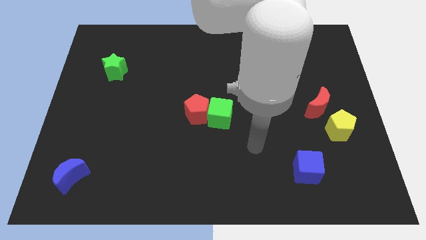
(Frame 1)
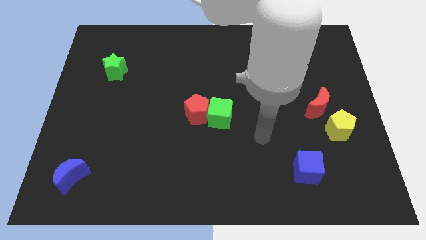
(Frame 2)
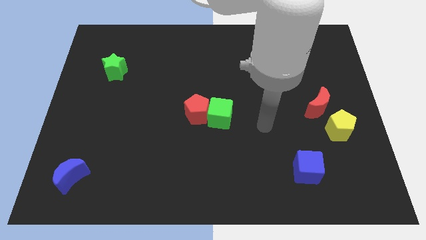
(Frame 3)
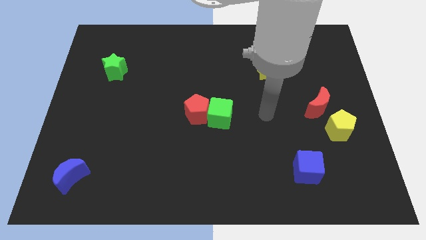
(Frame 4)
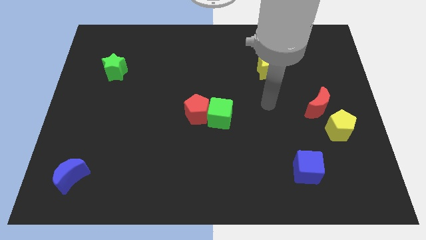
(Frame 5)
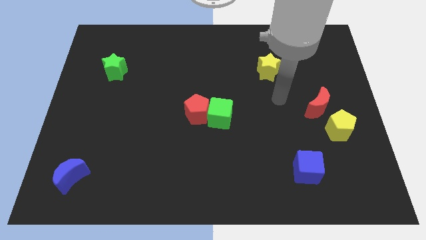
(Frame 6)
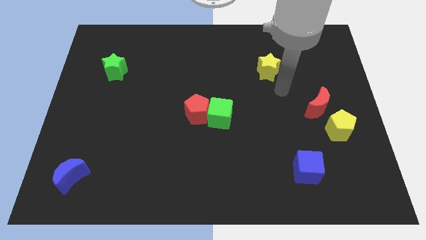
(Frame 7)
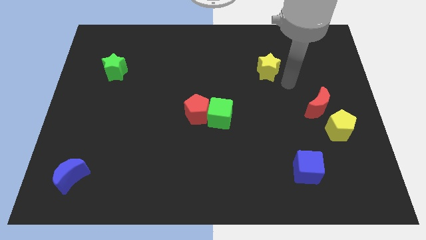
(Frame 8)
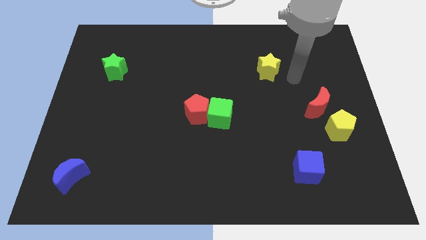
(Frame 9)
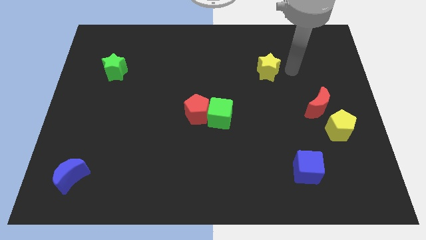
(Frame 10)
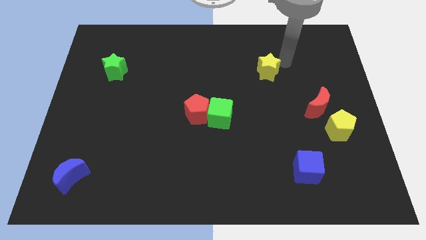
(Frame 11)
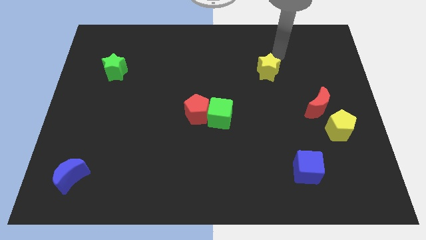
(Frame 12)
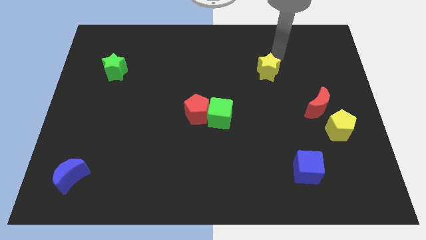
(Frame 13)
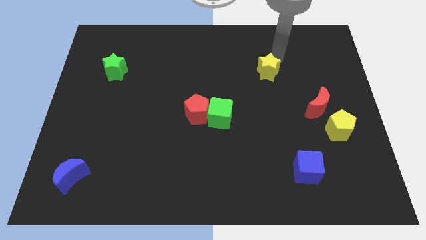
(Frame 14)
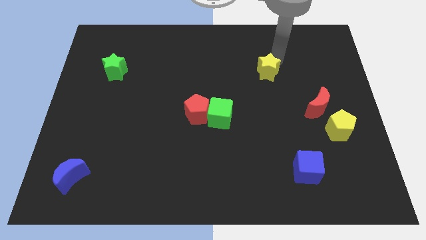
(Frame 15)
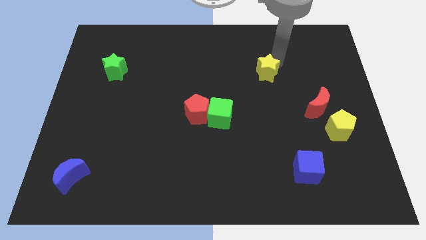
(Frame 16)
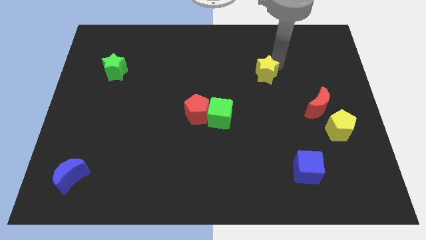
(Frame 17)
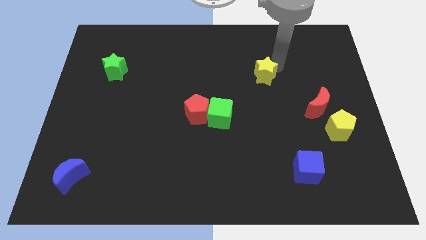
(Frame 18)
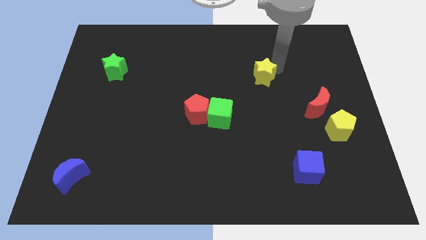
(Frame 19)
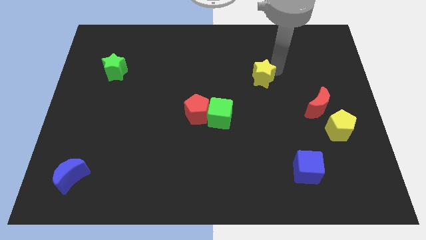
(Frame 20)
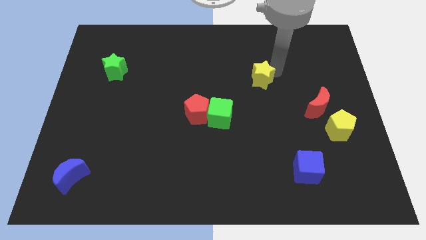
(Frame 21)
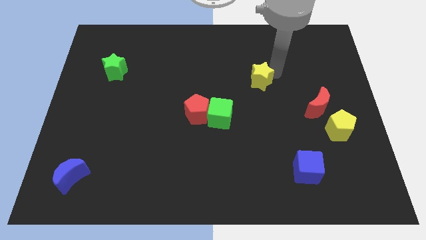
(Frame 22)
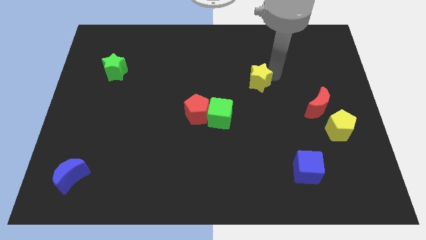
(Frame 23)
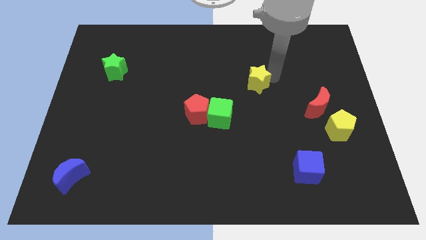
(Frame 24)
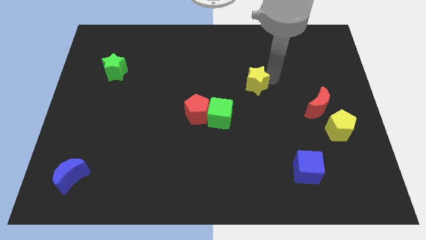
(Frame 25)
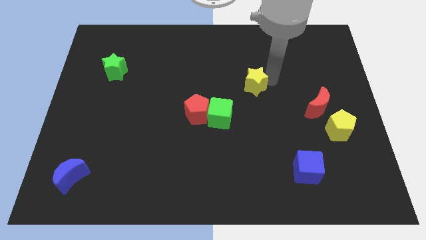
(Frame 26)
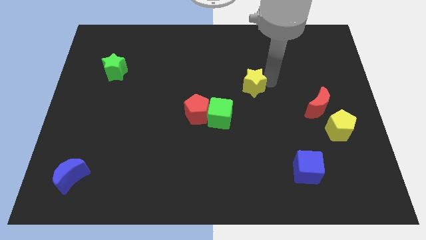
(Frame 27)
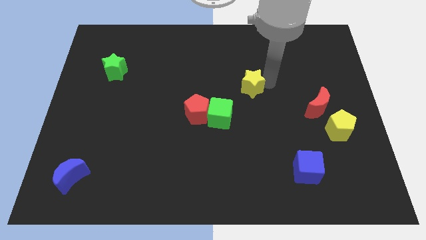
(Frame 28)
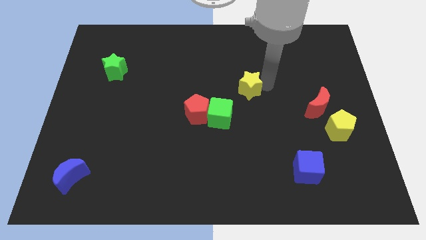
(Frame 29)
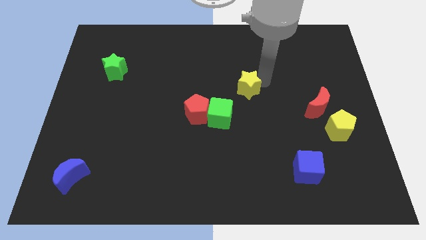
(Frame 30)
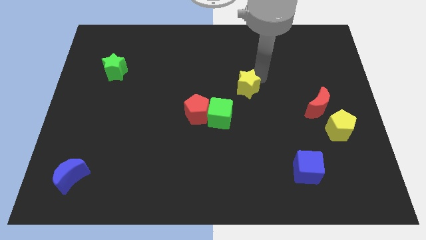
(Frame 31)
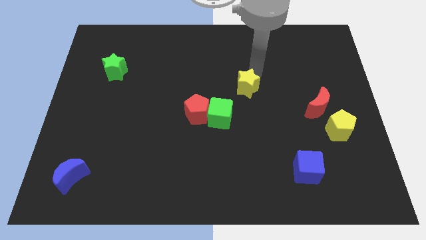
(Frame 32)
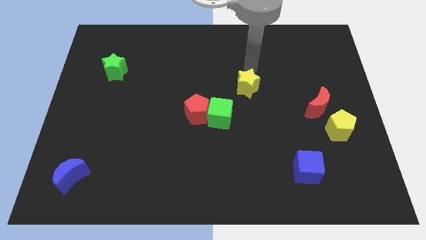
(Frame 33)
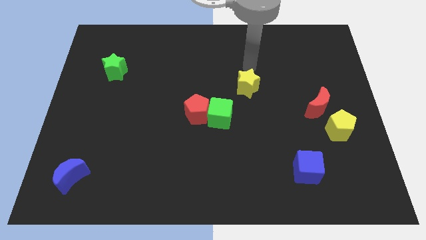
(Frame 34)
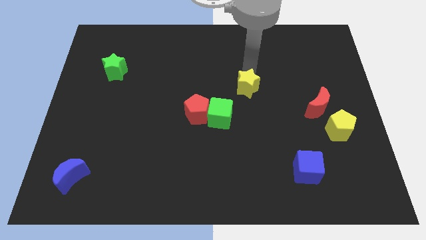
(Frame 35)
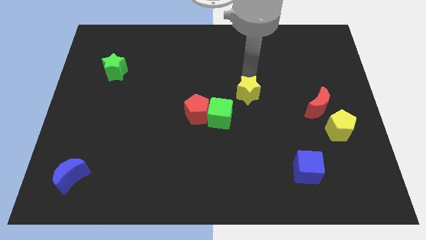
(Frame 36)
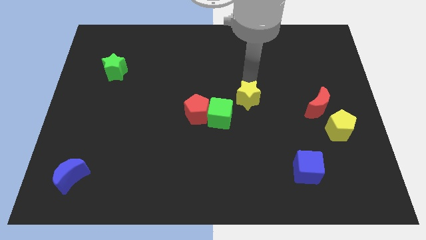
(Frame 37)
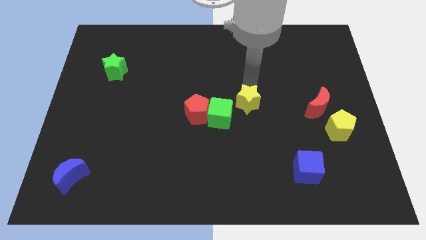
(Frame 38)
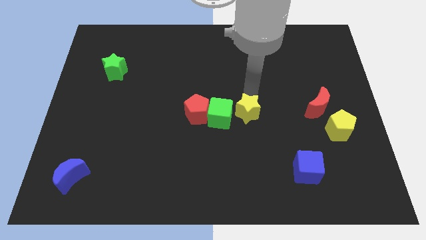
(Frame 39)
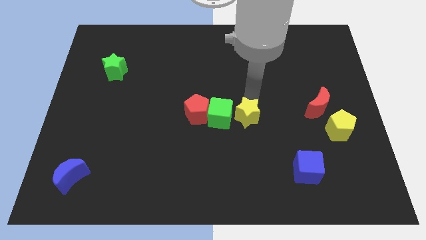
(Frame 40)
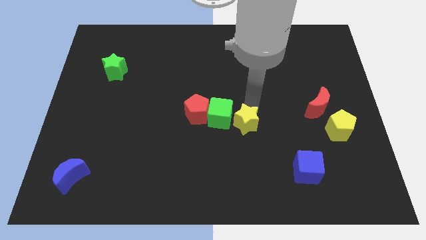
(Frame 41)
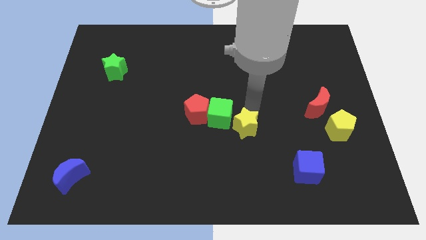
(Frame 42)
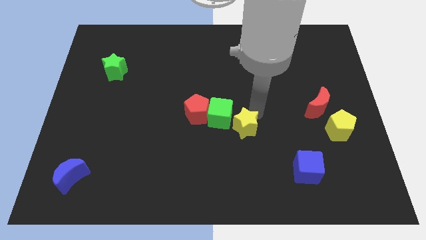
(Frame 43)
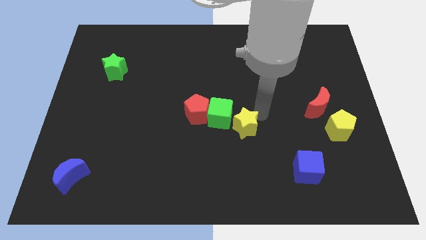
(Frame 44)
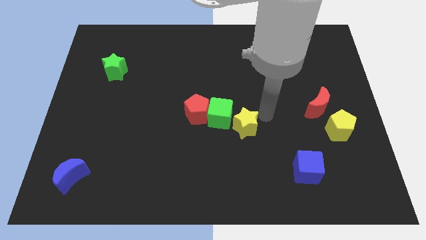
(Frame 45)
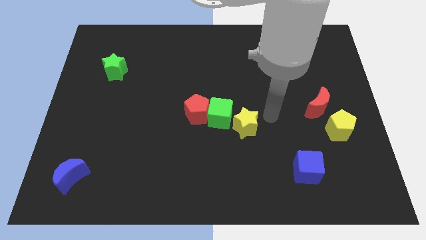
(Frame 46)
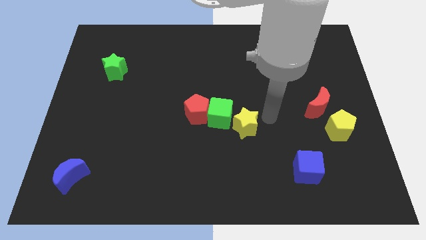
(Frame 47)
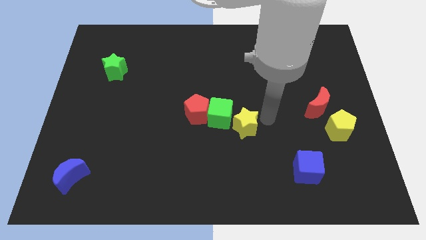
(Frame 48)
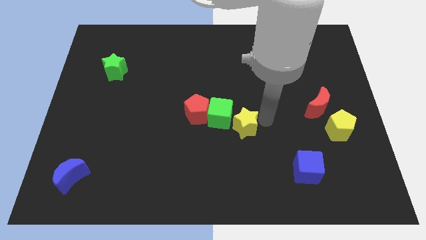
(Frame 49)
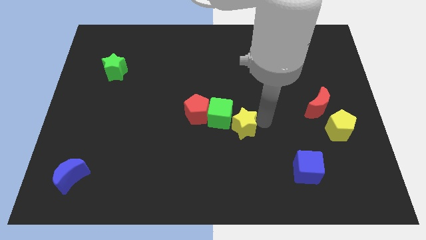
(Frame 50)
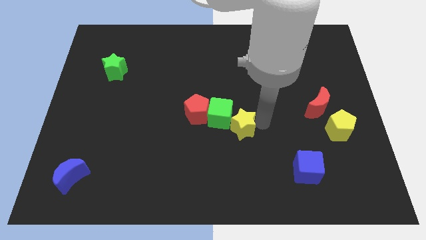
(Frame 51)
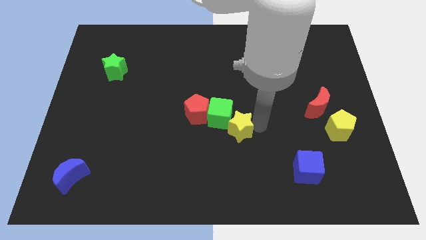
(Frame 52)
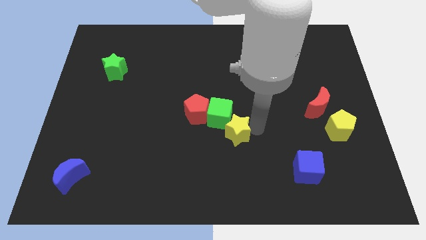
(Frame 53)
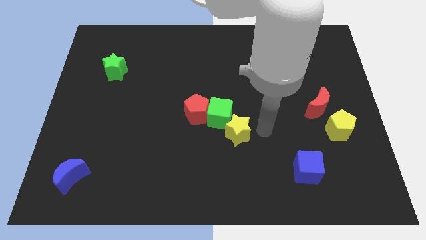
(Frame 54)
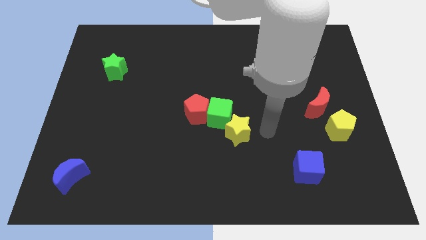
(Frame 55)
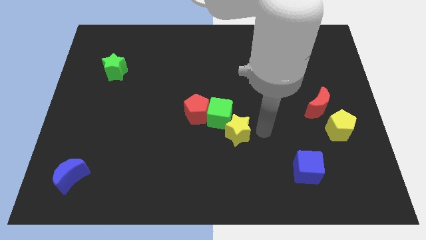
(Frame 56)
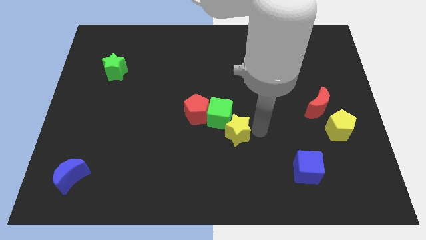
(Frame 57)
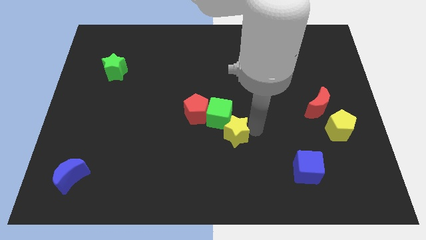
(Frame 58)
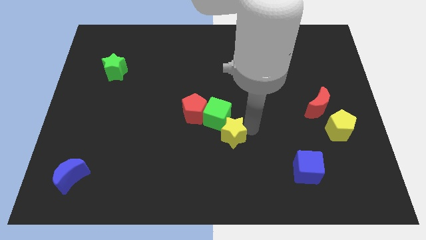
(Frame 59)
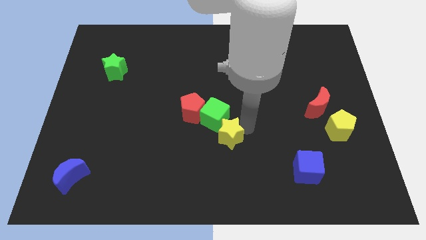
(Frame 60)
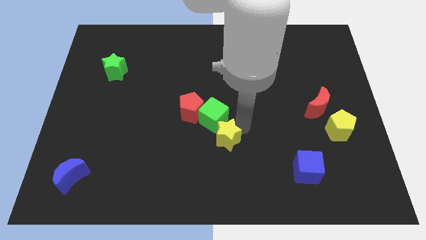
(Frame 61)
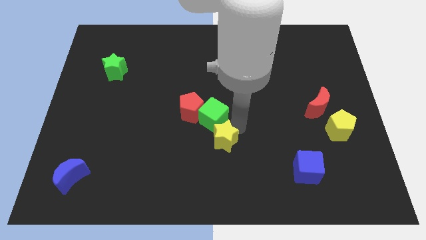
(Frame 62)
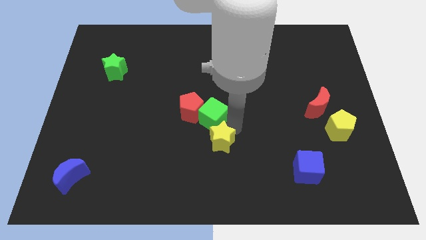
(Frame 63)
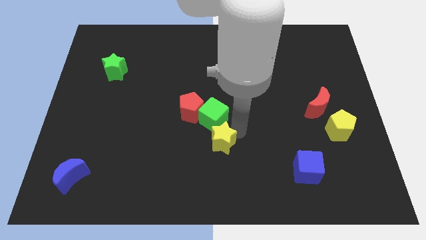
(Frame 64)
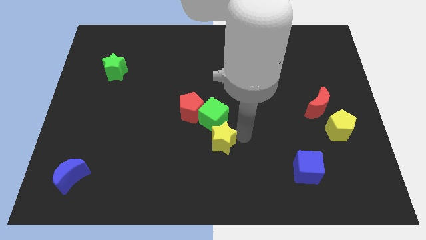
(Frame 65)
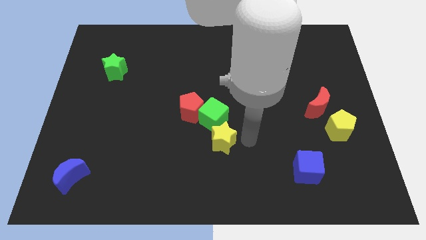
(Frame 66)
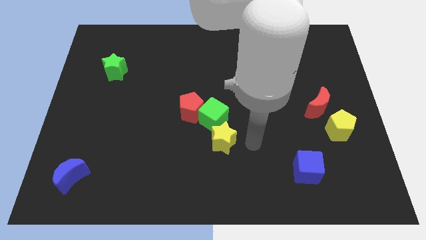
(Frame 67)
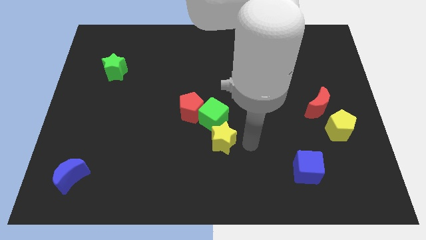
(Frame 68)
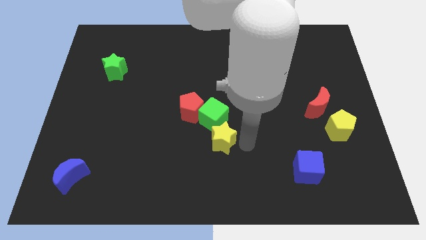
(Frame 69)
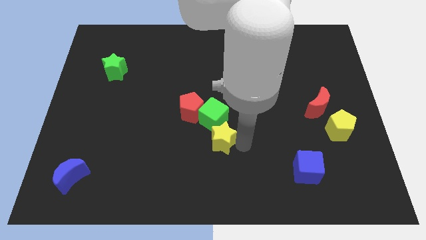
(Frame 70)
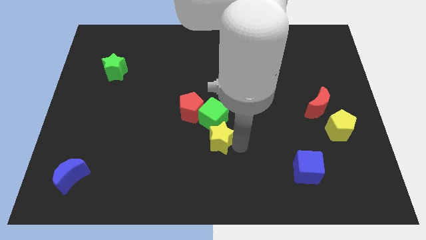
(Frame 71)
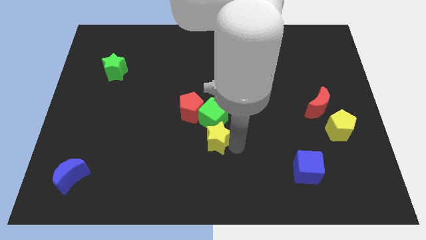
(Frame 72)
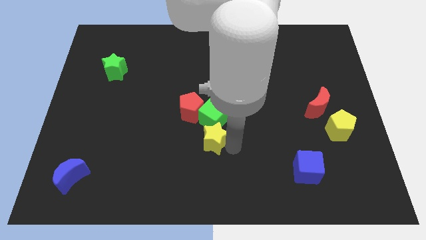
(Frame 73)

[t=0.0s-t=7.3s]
move the yellow star to the bottom left of the green cube
